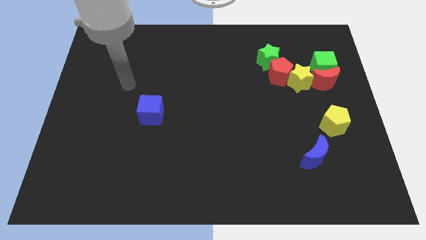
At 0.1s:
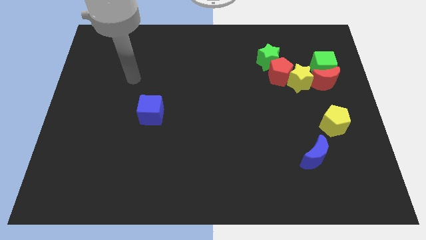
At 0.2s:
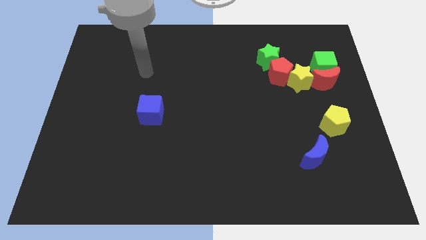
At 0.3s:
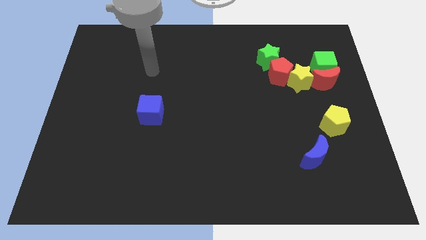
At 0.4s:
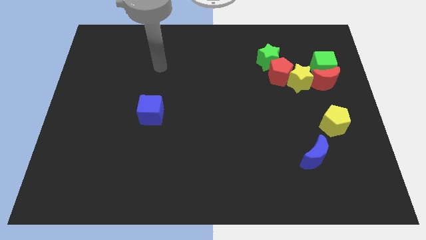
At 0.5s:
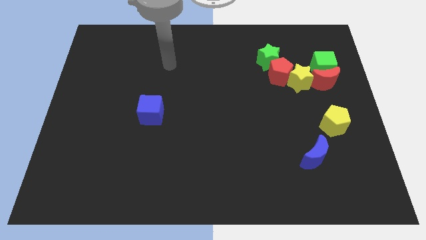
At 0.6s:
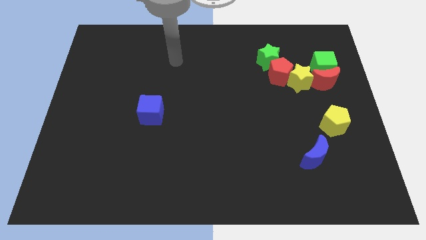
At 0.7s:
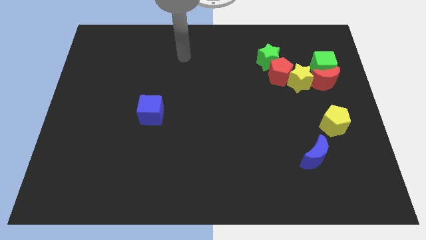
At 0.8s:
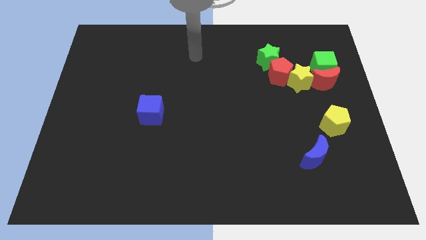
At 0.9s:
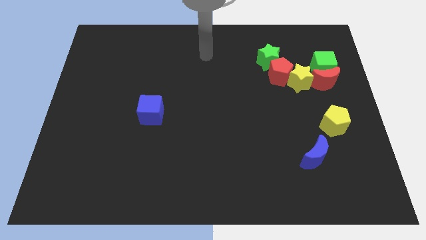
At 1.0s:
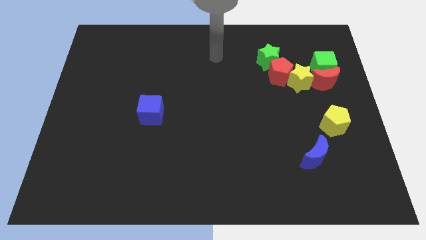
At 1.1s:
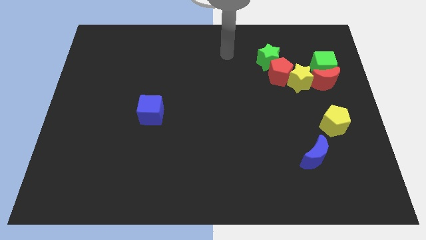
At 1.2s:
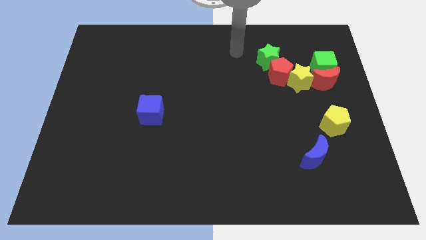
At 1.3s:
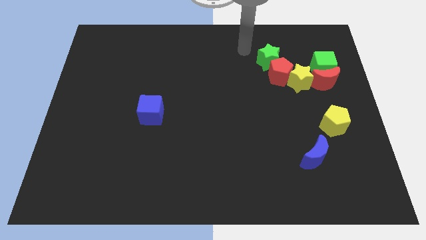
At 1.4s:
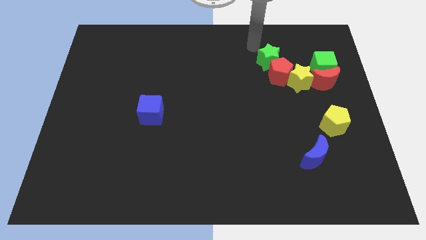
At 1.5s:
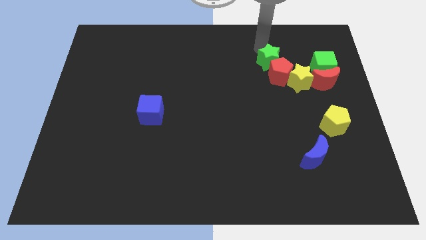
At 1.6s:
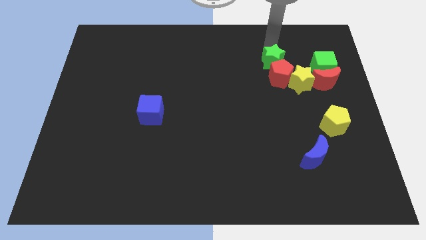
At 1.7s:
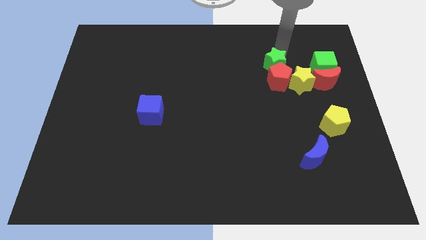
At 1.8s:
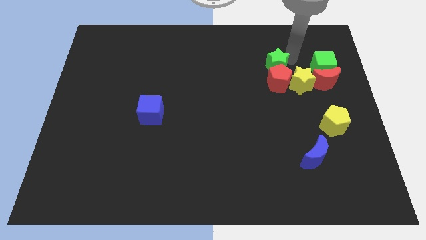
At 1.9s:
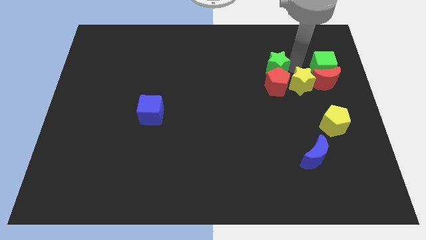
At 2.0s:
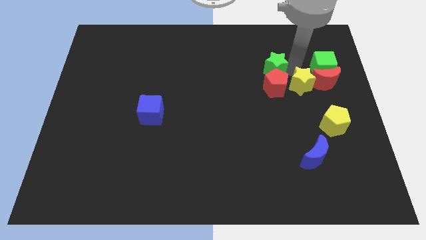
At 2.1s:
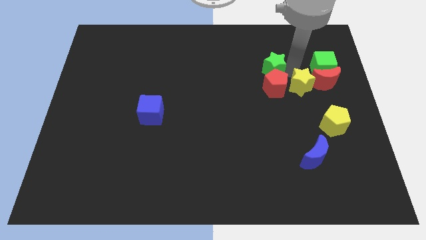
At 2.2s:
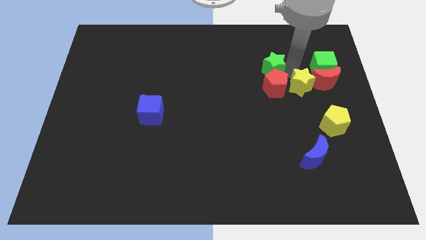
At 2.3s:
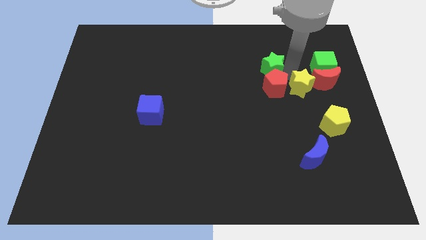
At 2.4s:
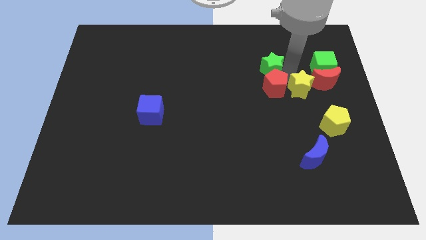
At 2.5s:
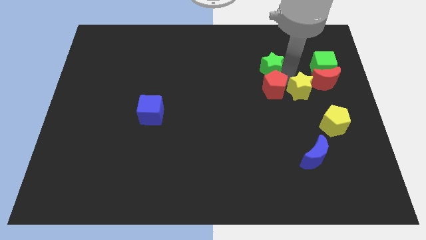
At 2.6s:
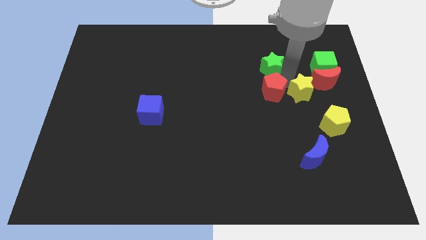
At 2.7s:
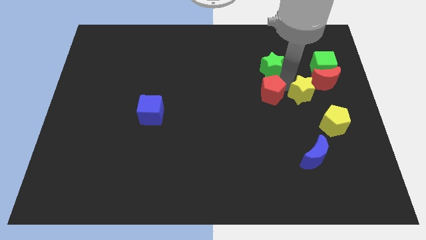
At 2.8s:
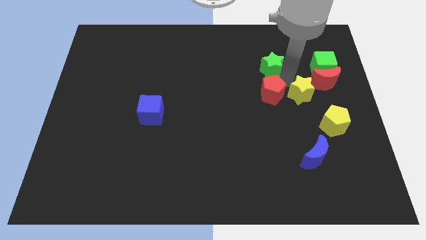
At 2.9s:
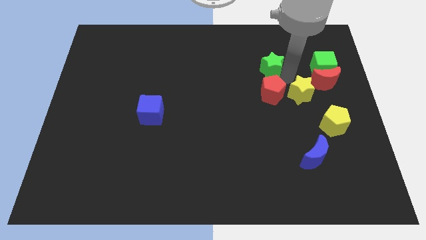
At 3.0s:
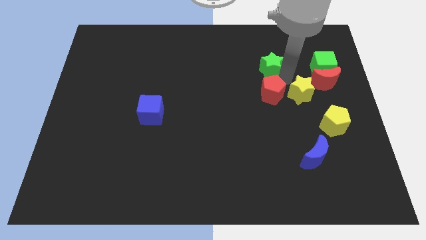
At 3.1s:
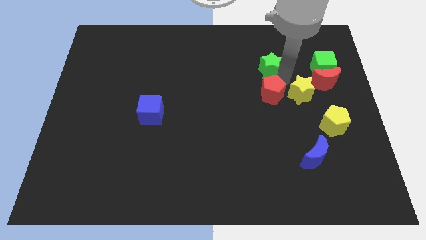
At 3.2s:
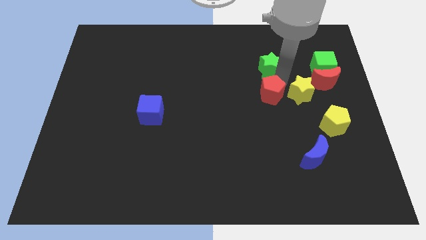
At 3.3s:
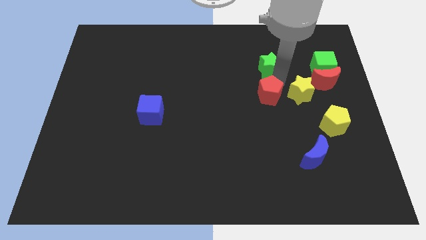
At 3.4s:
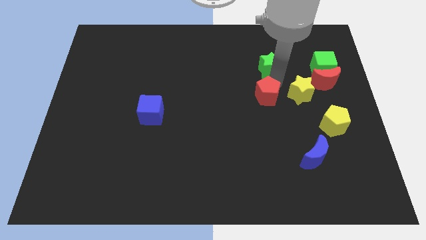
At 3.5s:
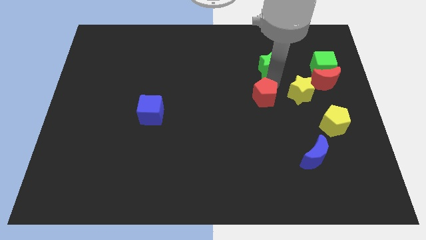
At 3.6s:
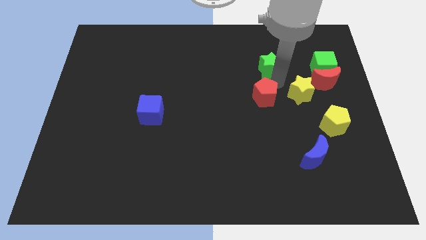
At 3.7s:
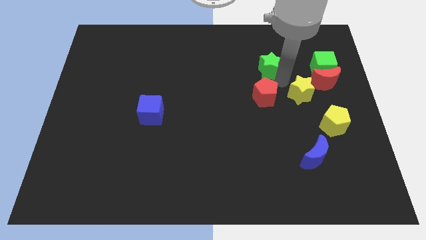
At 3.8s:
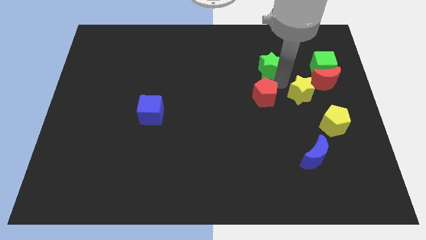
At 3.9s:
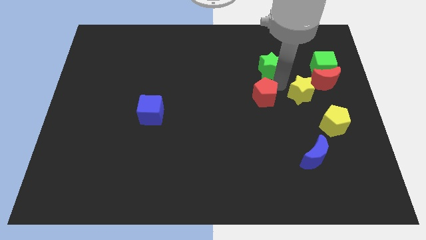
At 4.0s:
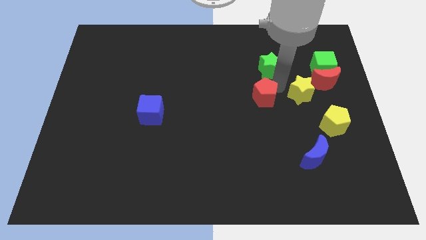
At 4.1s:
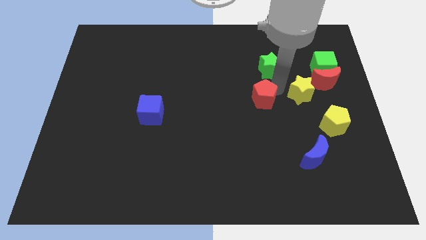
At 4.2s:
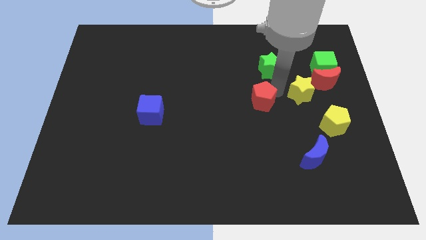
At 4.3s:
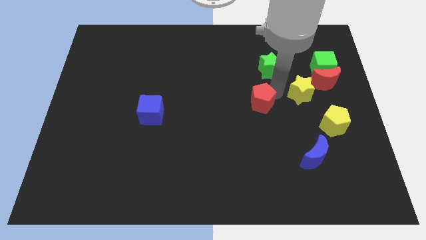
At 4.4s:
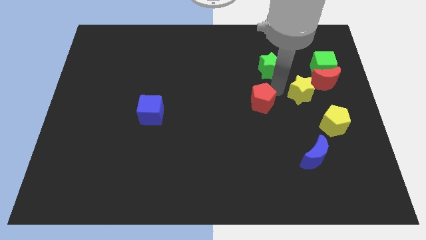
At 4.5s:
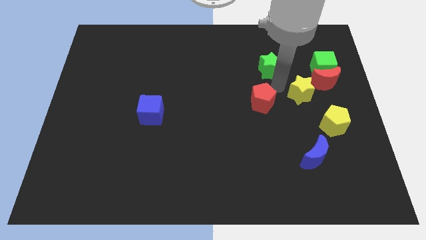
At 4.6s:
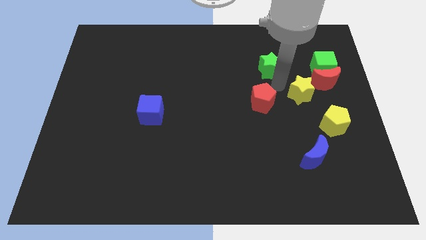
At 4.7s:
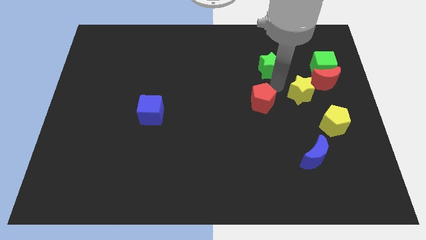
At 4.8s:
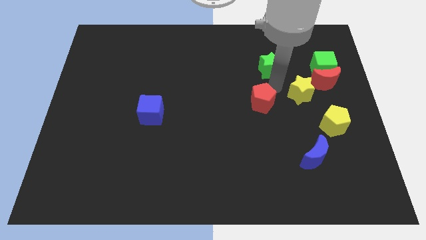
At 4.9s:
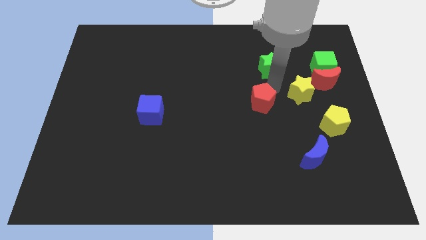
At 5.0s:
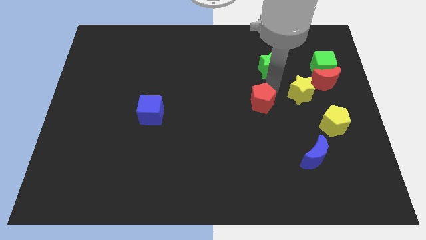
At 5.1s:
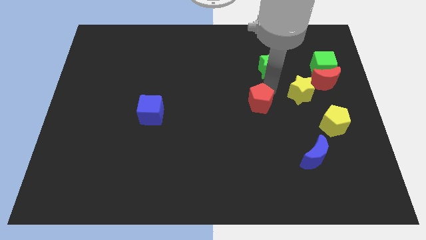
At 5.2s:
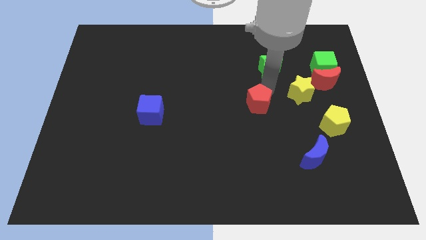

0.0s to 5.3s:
pull the red pentagon apart from the yellow star and green star

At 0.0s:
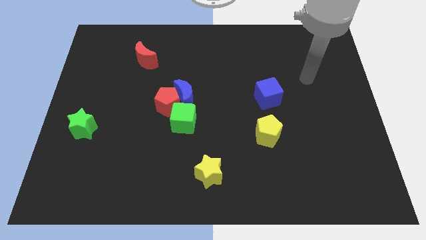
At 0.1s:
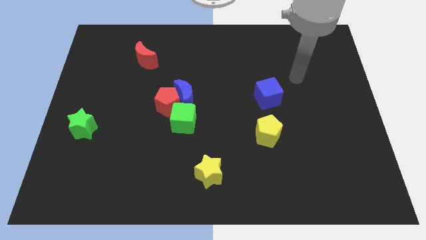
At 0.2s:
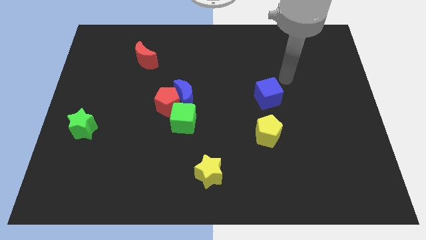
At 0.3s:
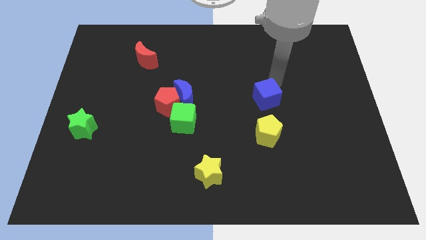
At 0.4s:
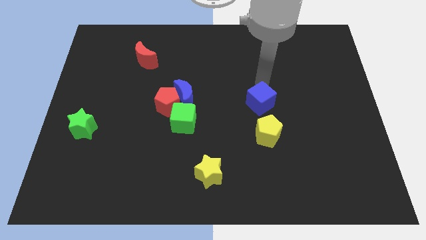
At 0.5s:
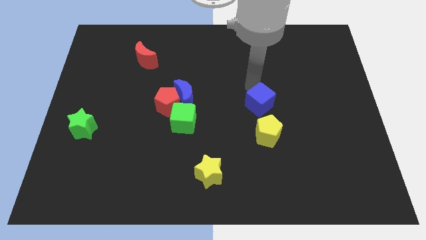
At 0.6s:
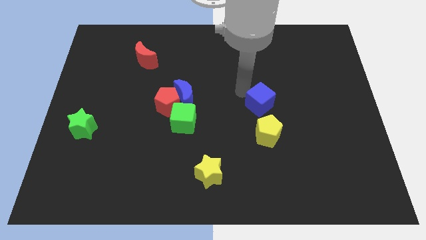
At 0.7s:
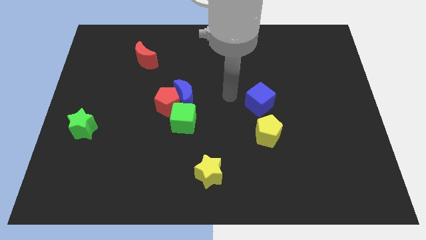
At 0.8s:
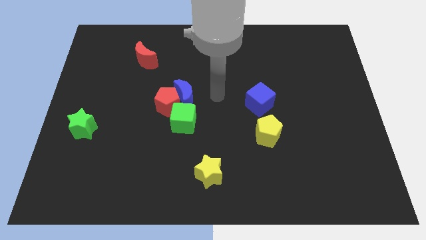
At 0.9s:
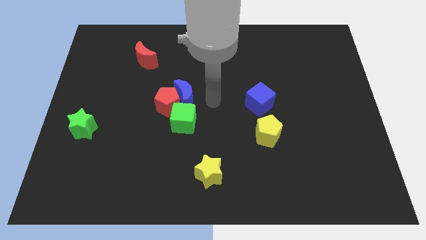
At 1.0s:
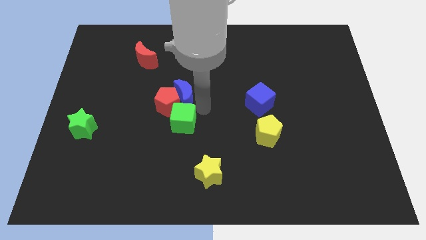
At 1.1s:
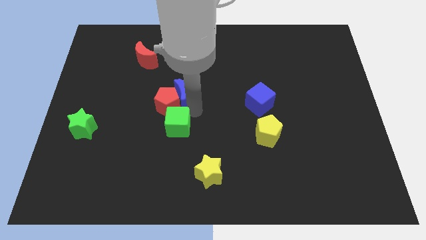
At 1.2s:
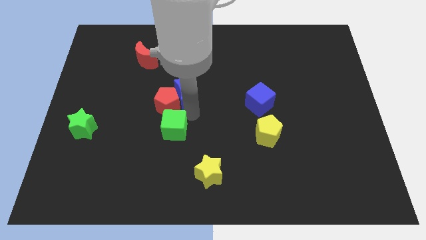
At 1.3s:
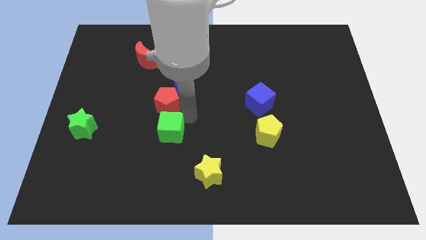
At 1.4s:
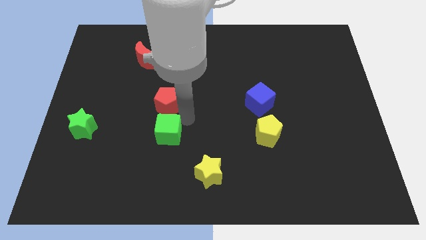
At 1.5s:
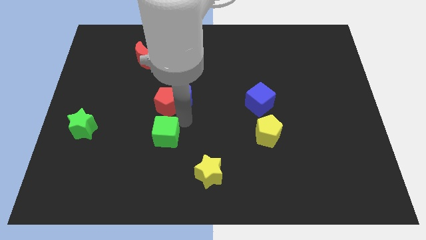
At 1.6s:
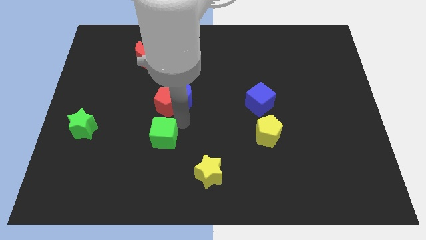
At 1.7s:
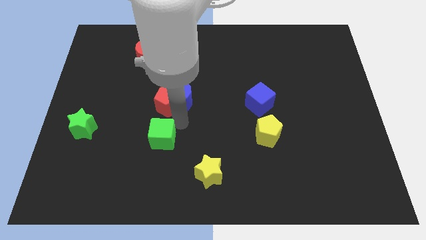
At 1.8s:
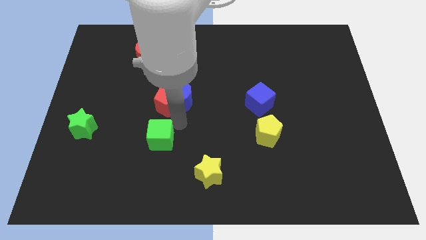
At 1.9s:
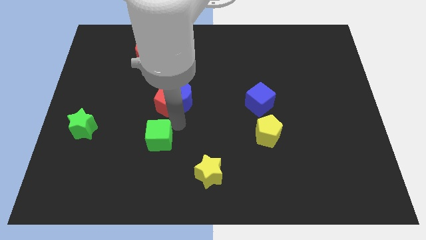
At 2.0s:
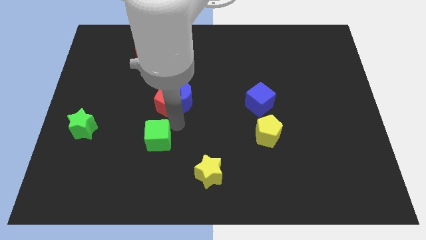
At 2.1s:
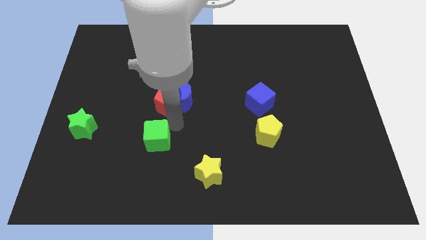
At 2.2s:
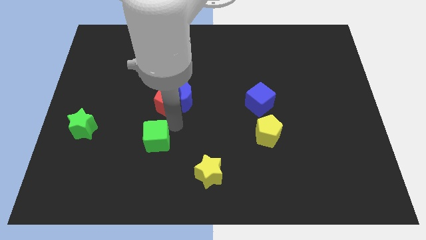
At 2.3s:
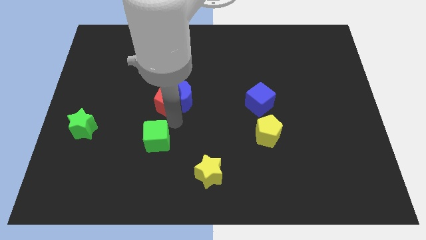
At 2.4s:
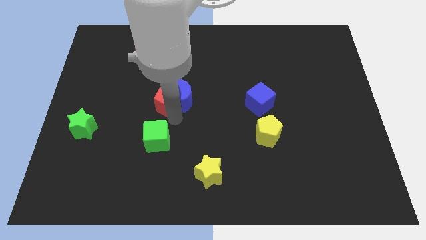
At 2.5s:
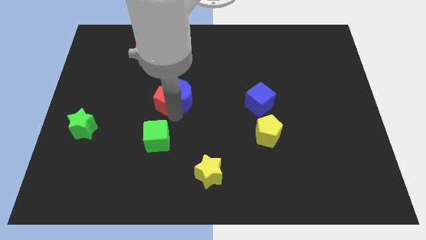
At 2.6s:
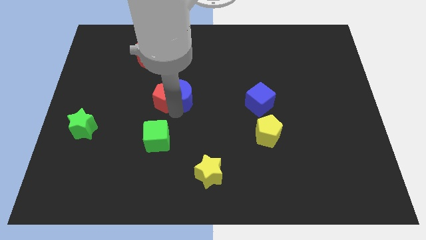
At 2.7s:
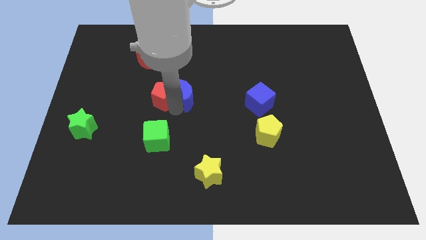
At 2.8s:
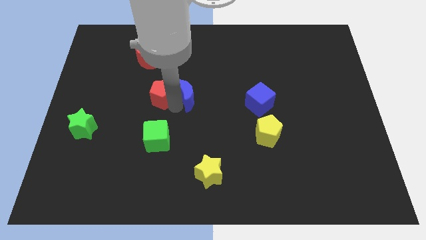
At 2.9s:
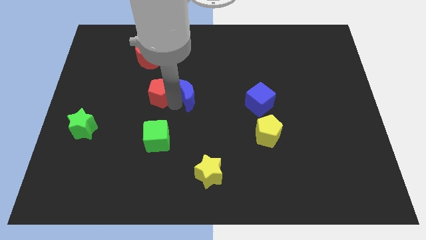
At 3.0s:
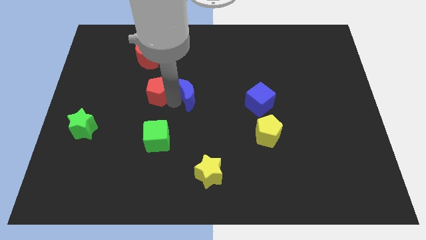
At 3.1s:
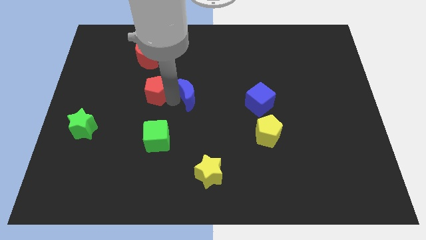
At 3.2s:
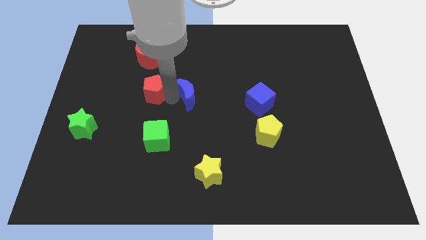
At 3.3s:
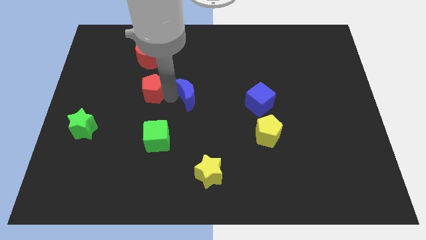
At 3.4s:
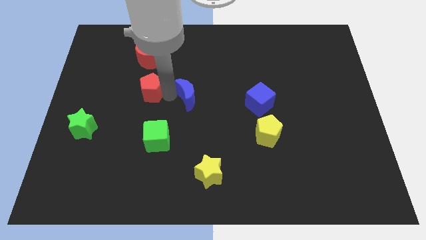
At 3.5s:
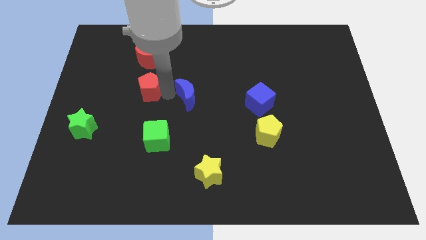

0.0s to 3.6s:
separate the red pentagon from the blue moon and green cube

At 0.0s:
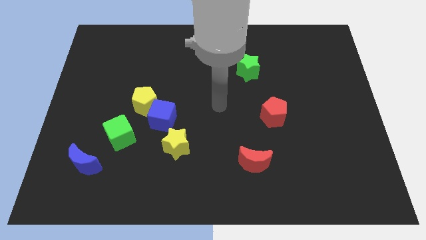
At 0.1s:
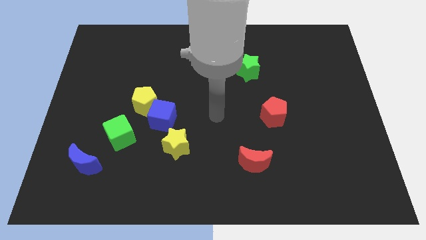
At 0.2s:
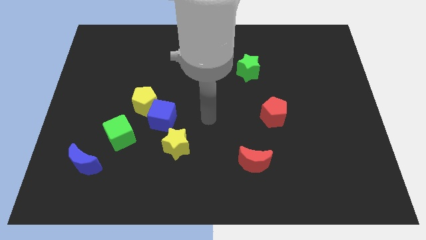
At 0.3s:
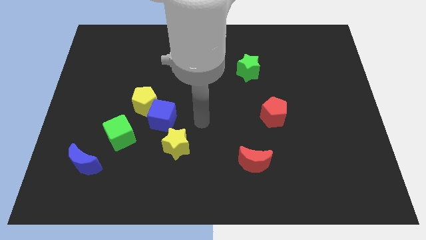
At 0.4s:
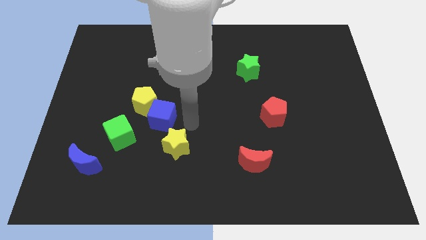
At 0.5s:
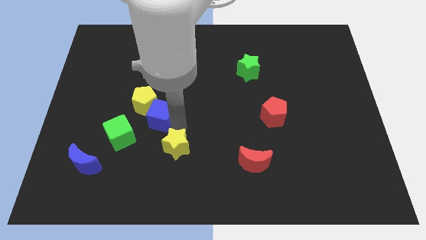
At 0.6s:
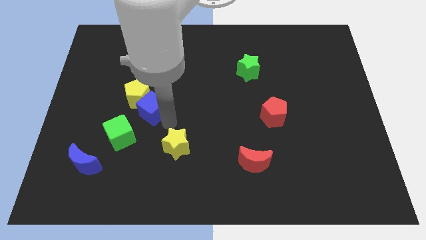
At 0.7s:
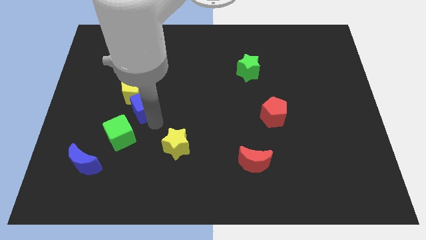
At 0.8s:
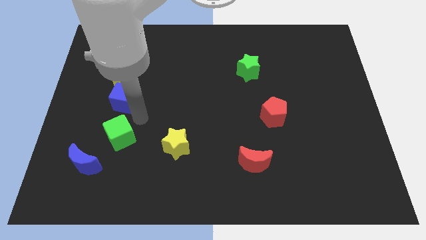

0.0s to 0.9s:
separate the yellow pentagon from the blue cube and green cube
